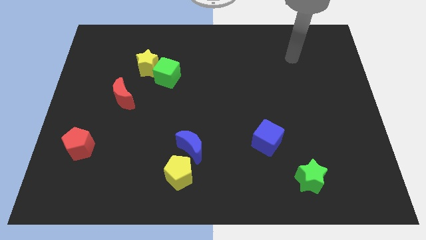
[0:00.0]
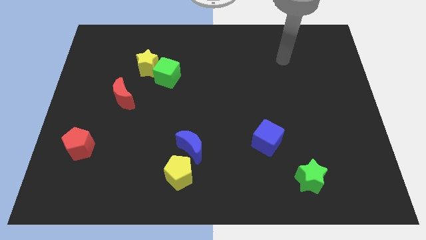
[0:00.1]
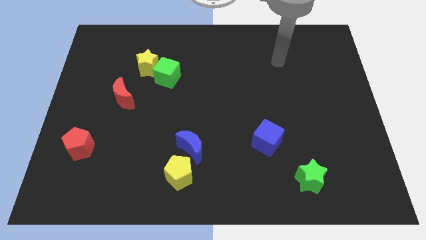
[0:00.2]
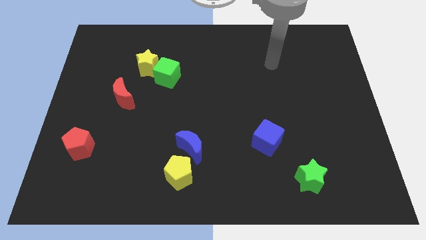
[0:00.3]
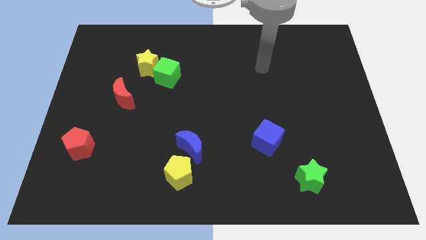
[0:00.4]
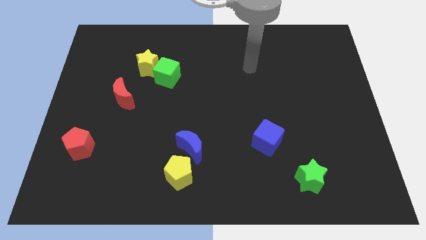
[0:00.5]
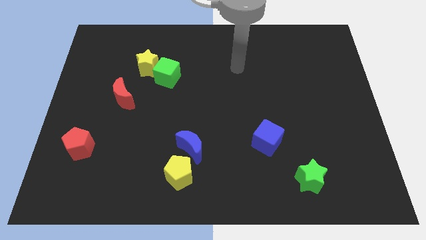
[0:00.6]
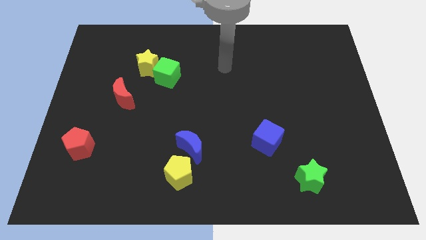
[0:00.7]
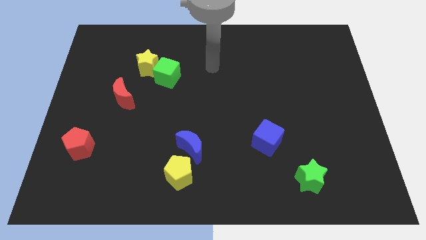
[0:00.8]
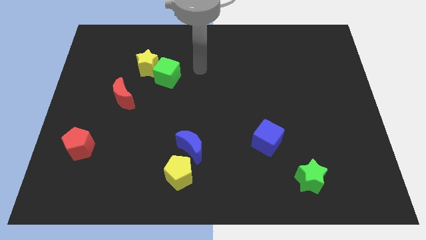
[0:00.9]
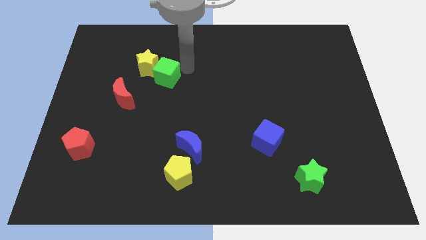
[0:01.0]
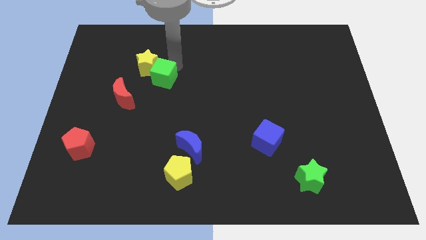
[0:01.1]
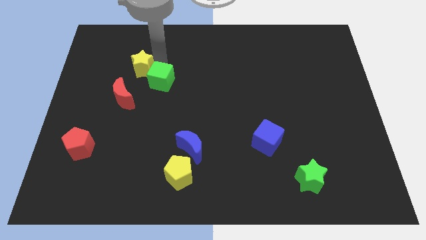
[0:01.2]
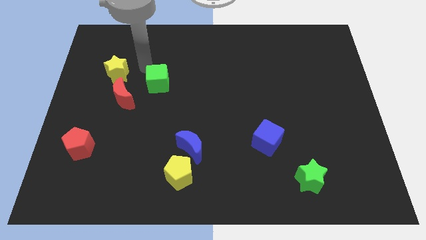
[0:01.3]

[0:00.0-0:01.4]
separate the green cube from the yellow star

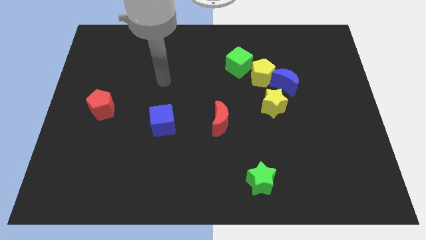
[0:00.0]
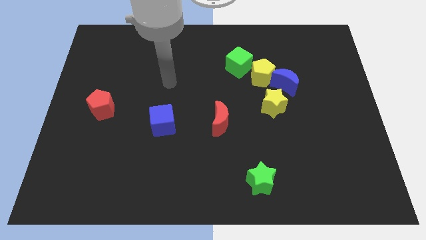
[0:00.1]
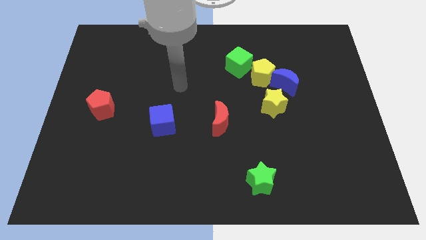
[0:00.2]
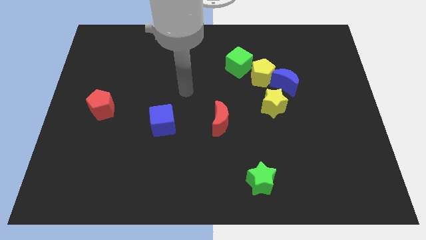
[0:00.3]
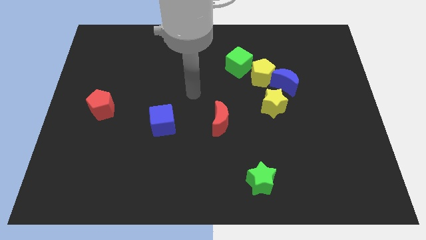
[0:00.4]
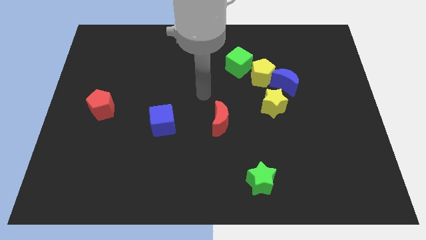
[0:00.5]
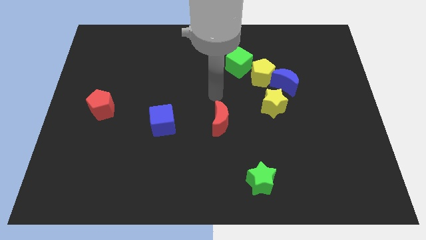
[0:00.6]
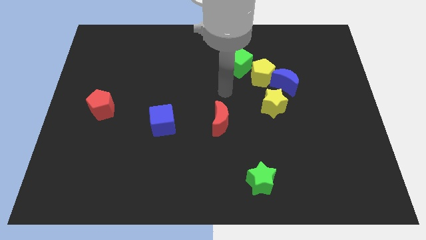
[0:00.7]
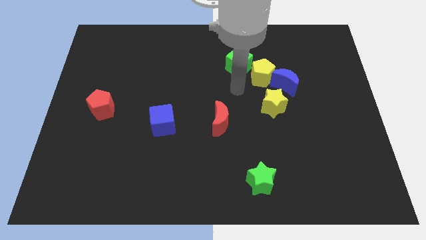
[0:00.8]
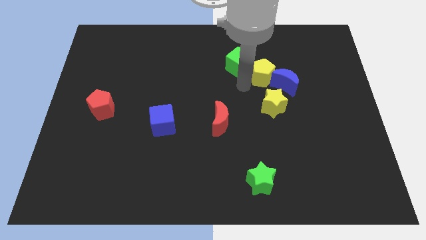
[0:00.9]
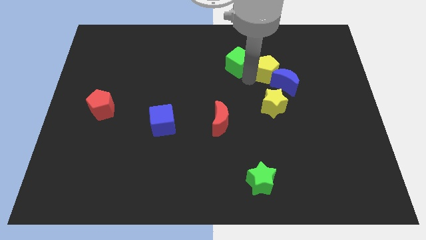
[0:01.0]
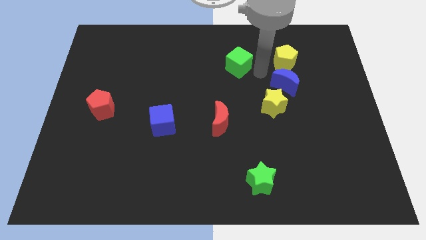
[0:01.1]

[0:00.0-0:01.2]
separate the green cube from the yellow pentagon

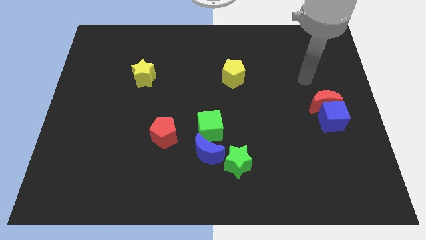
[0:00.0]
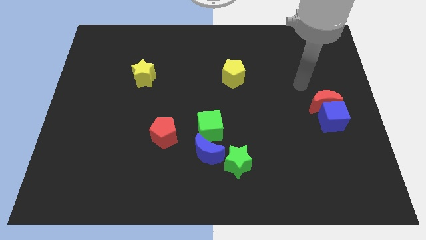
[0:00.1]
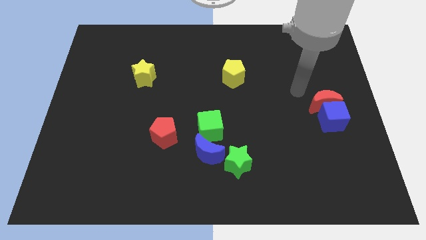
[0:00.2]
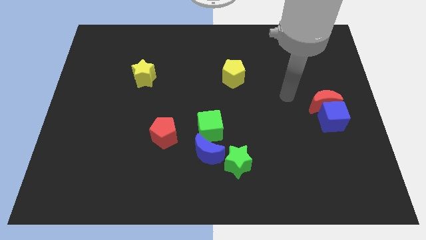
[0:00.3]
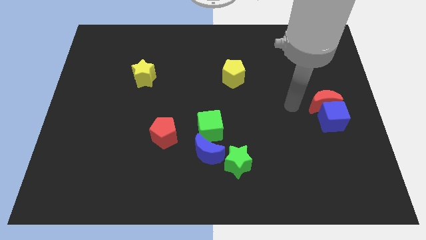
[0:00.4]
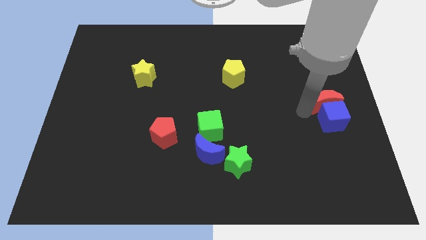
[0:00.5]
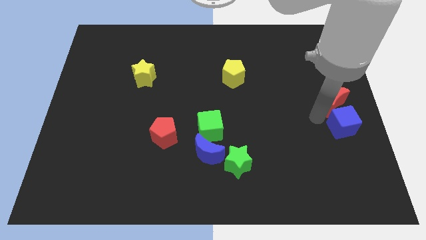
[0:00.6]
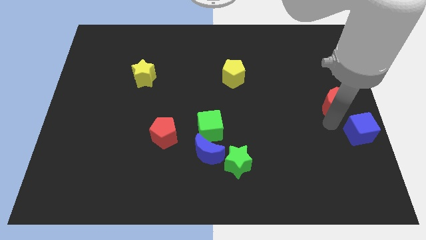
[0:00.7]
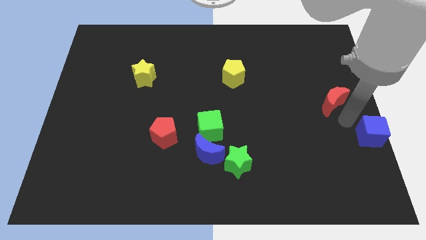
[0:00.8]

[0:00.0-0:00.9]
pull the red moon apart from the blue cube

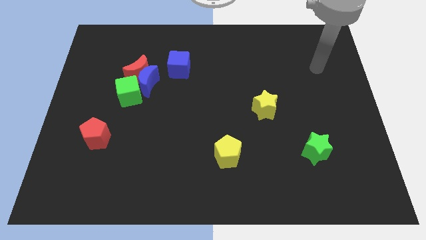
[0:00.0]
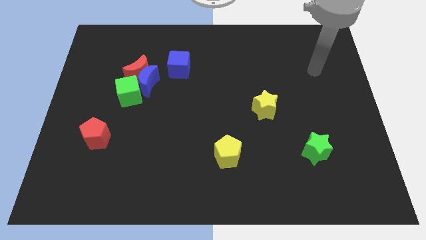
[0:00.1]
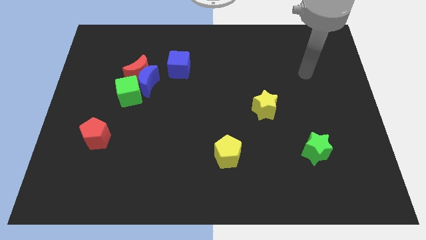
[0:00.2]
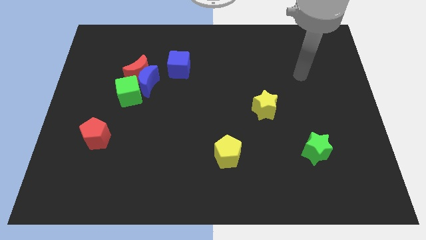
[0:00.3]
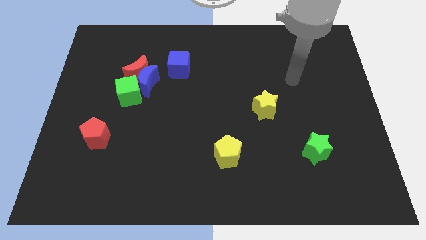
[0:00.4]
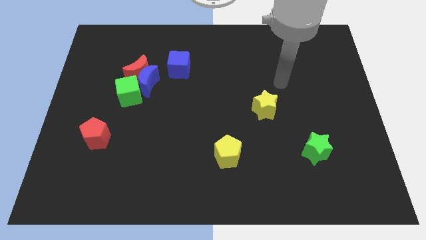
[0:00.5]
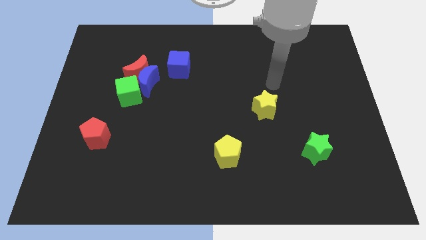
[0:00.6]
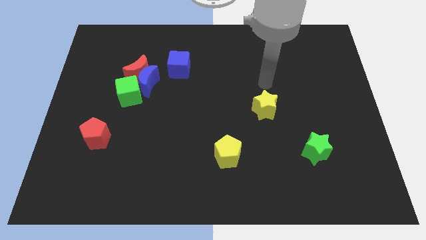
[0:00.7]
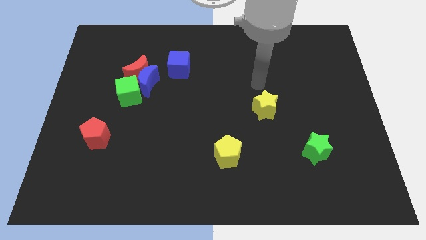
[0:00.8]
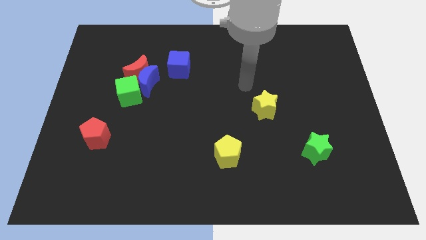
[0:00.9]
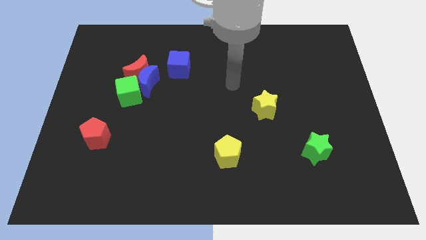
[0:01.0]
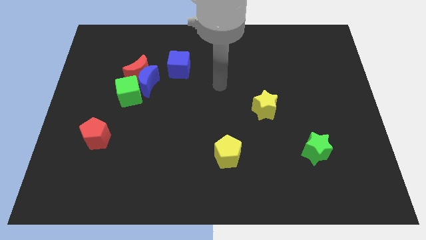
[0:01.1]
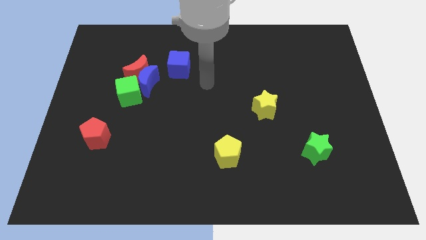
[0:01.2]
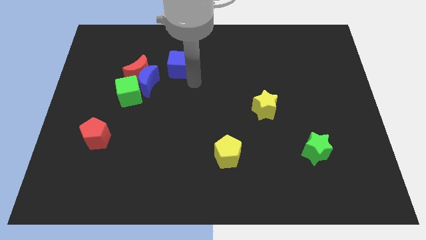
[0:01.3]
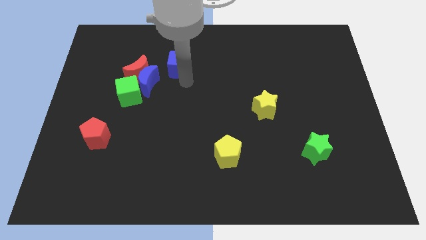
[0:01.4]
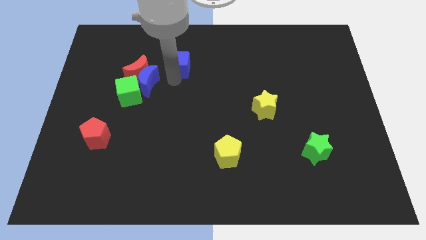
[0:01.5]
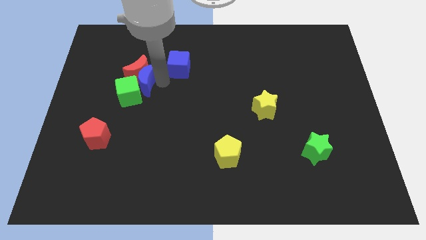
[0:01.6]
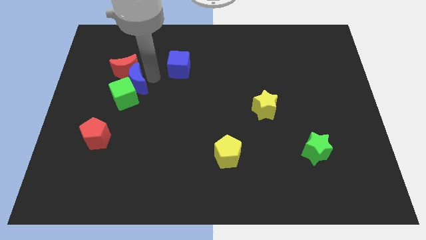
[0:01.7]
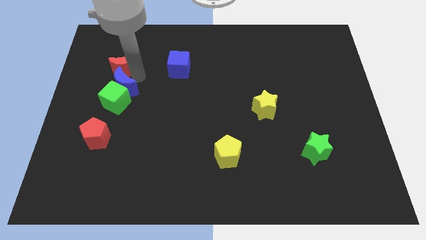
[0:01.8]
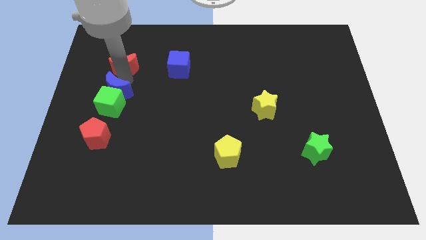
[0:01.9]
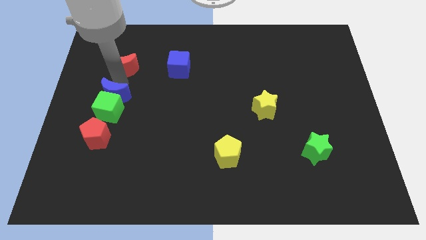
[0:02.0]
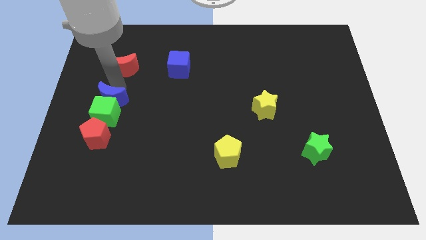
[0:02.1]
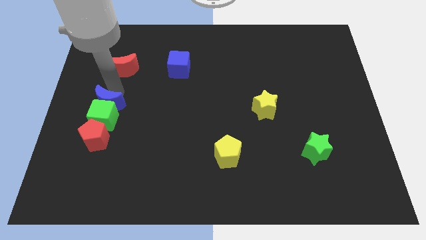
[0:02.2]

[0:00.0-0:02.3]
separate the green cube from the blue moon and red moon

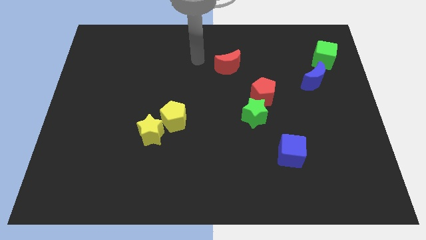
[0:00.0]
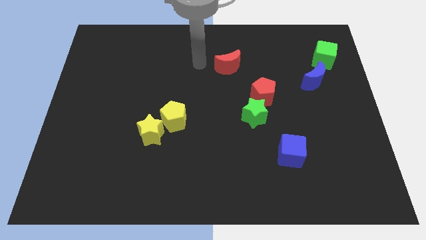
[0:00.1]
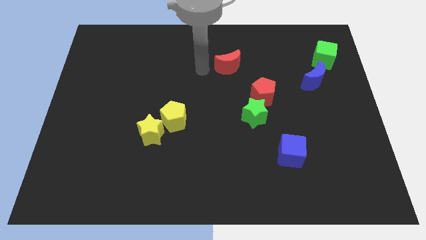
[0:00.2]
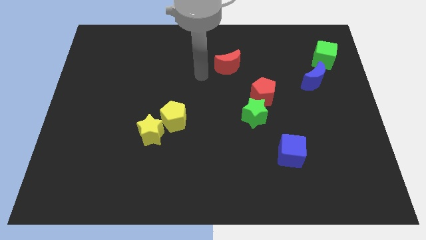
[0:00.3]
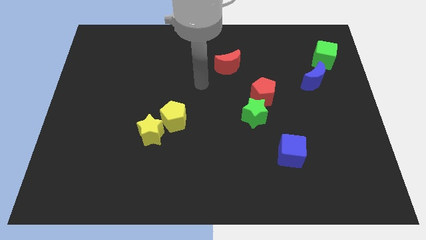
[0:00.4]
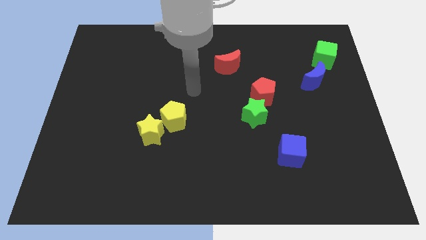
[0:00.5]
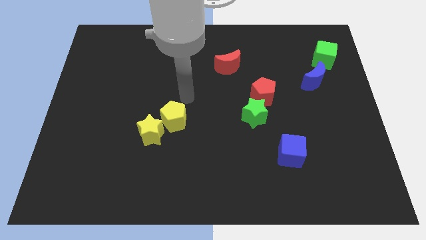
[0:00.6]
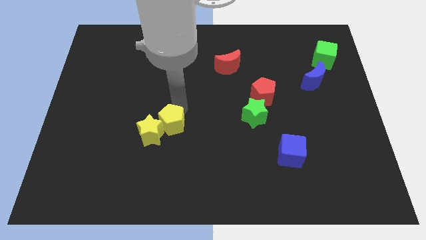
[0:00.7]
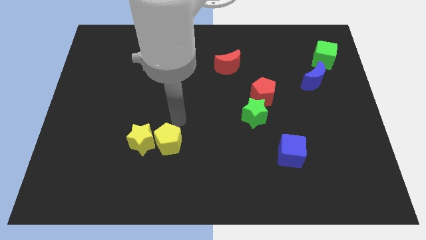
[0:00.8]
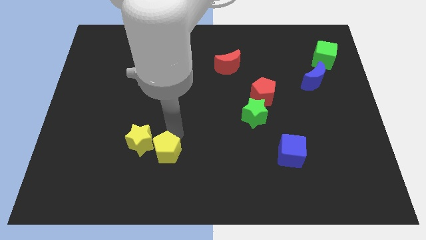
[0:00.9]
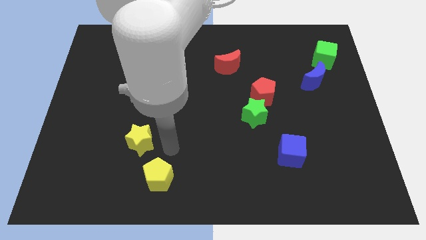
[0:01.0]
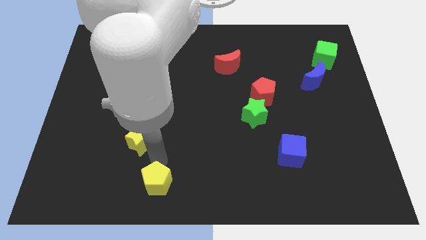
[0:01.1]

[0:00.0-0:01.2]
pull the yellow star apart from the yellow pentagon

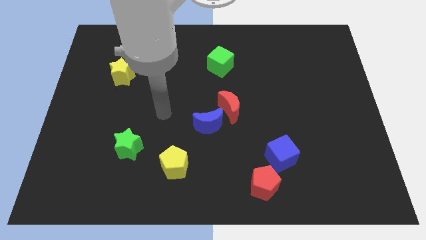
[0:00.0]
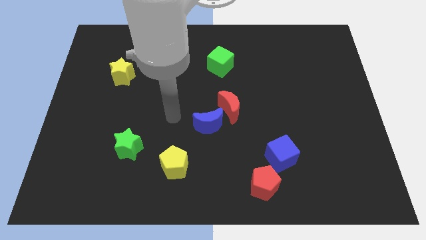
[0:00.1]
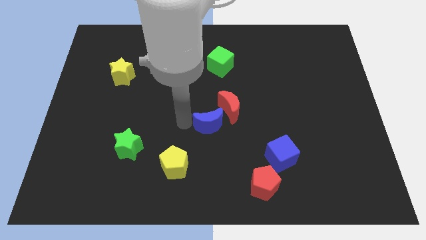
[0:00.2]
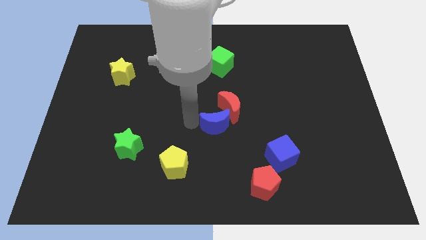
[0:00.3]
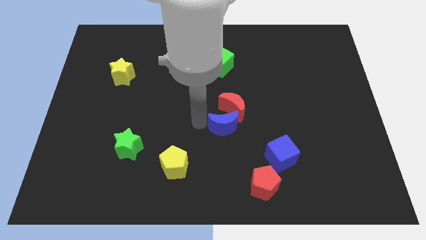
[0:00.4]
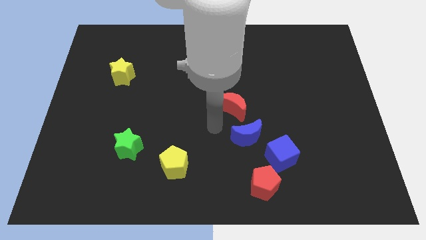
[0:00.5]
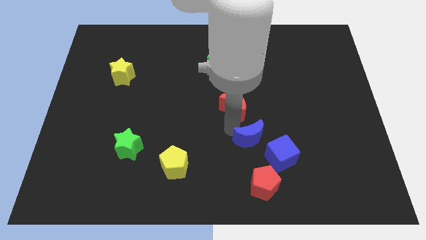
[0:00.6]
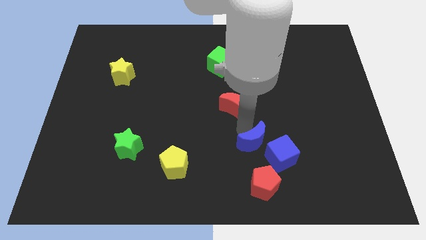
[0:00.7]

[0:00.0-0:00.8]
separate the red moon from the blue moon

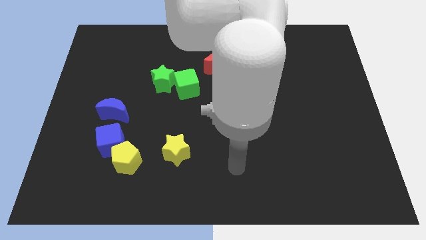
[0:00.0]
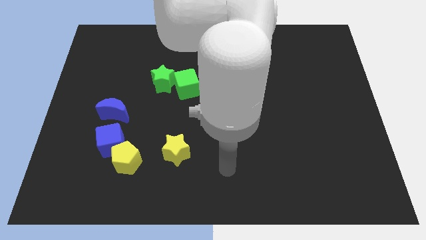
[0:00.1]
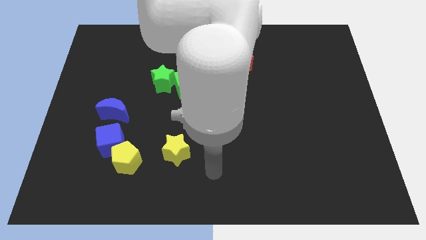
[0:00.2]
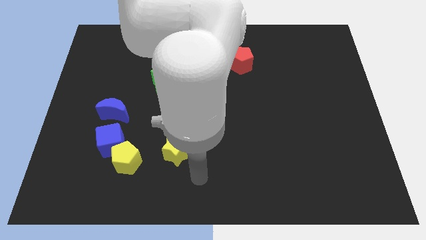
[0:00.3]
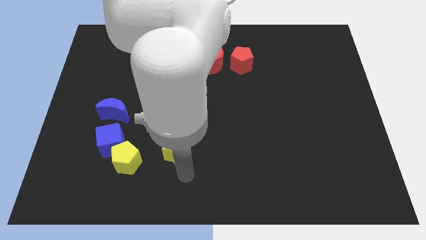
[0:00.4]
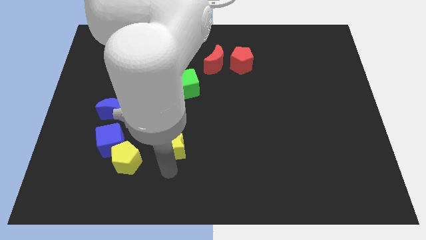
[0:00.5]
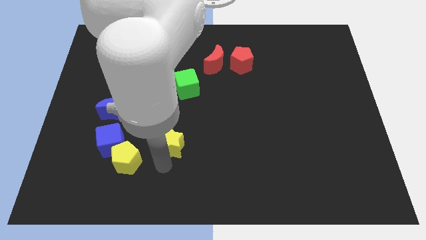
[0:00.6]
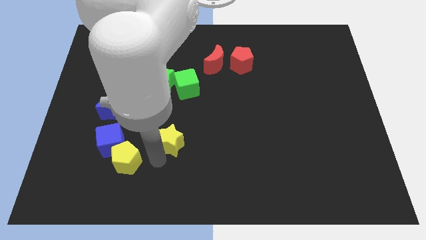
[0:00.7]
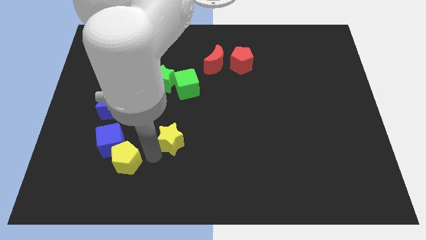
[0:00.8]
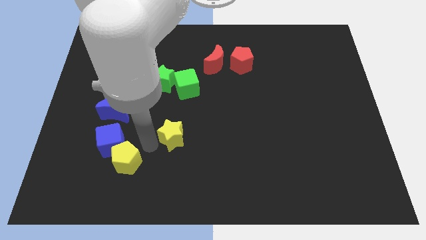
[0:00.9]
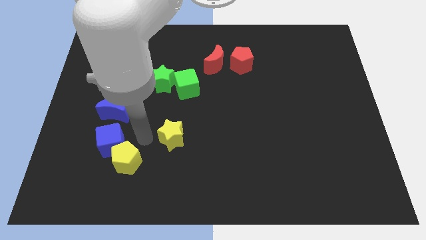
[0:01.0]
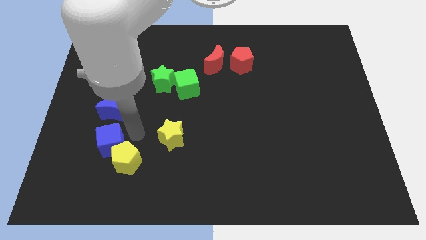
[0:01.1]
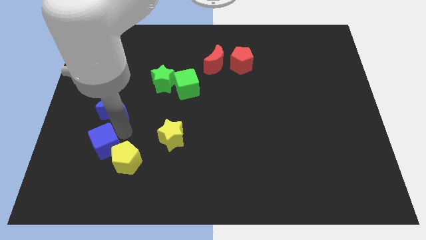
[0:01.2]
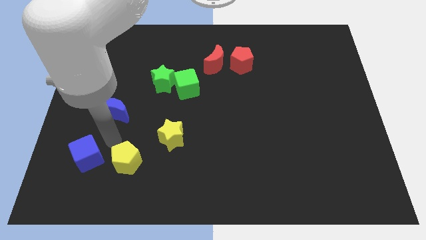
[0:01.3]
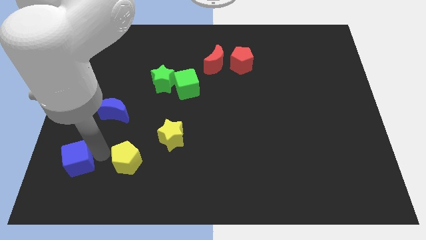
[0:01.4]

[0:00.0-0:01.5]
pull the yellow pentagon apart from the blue cube
